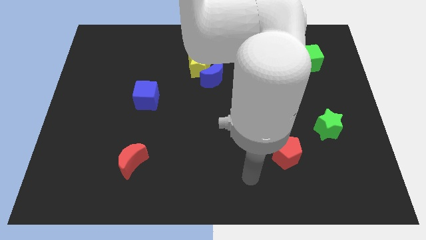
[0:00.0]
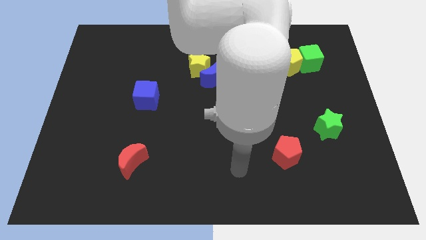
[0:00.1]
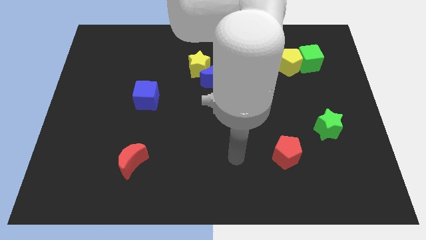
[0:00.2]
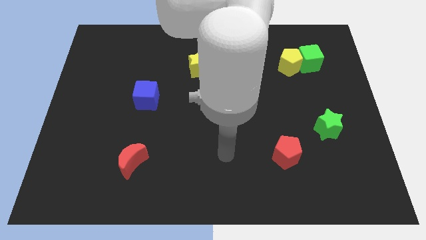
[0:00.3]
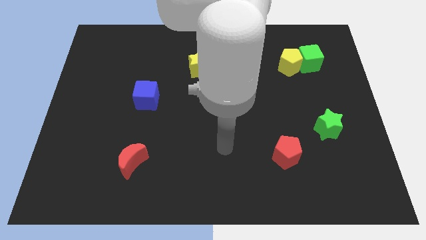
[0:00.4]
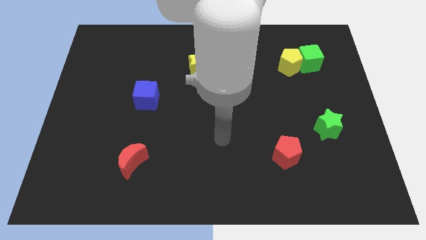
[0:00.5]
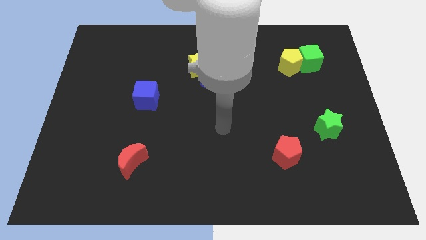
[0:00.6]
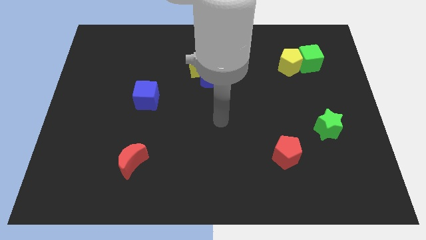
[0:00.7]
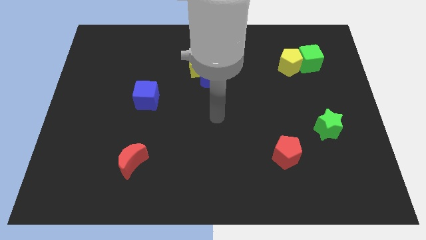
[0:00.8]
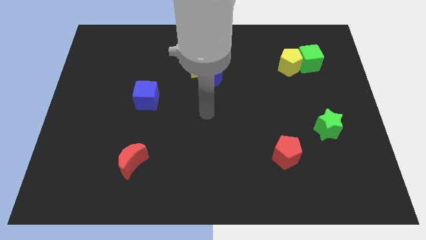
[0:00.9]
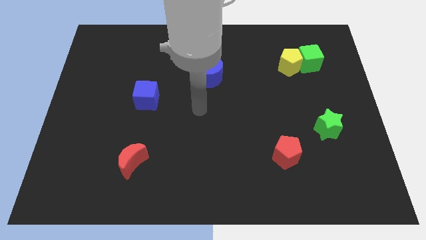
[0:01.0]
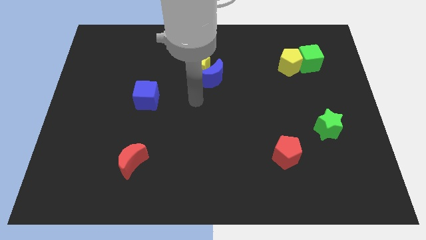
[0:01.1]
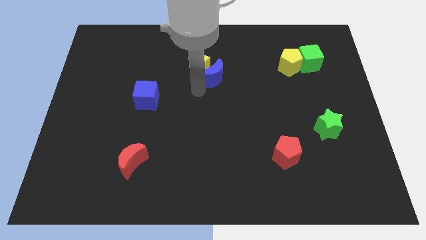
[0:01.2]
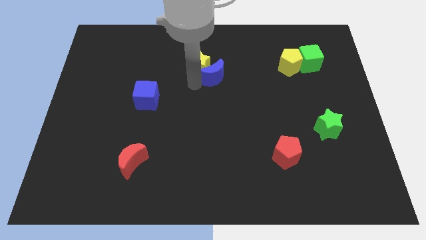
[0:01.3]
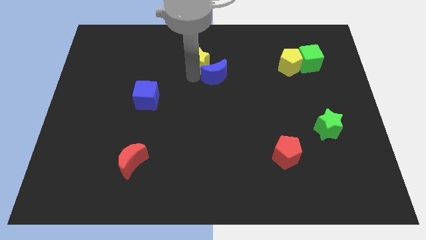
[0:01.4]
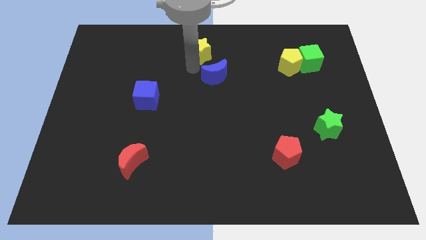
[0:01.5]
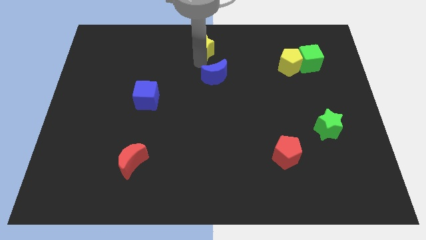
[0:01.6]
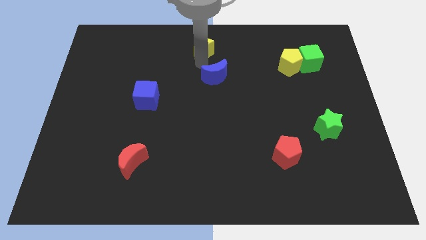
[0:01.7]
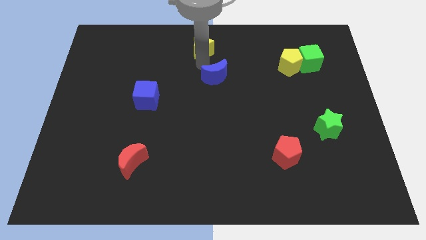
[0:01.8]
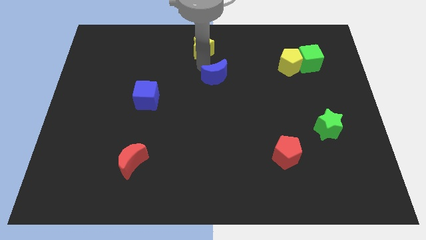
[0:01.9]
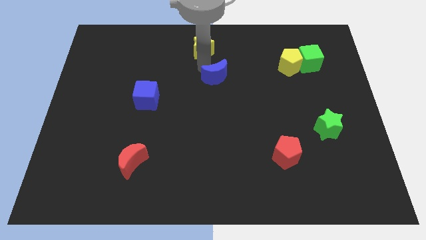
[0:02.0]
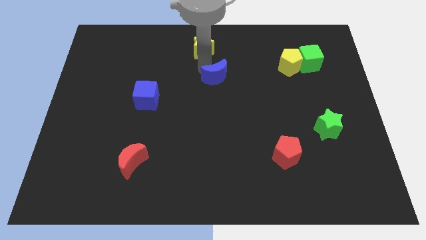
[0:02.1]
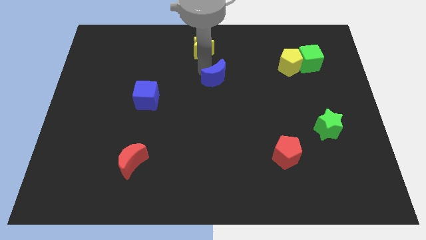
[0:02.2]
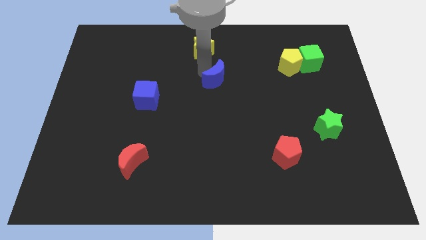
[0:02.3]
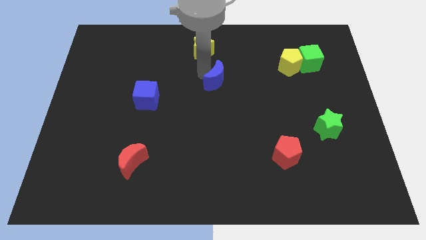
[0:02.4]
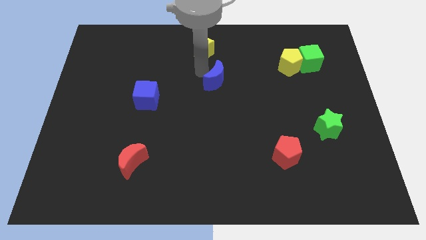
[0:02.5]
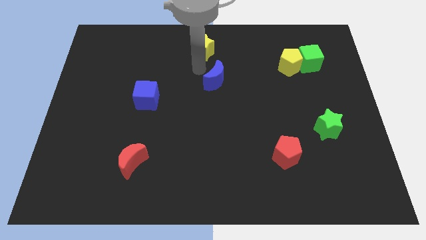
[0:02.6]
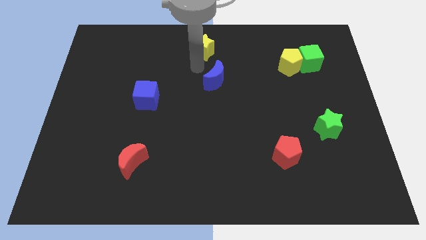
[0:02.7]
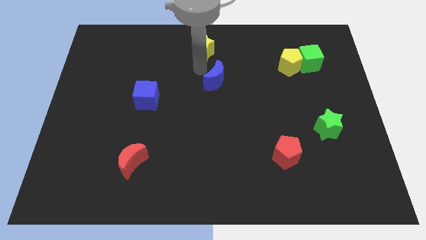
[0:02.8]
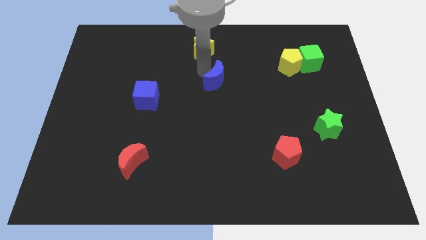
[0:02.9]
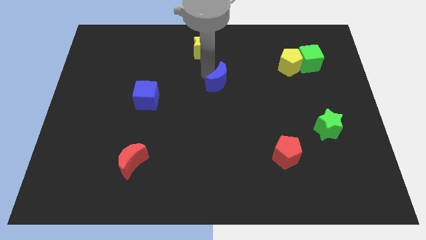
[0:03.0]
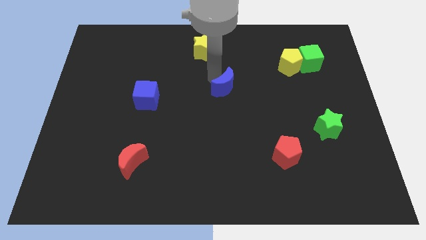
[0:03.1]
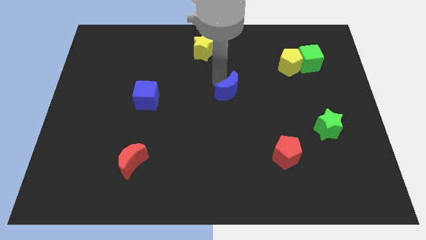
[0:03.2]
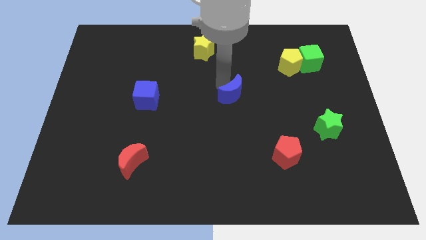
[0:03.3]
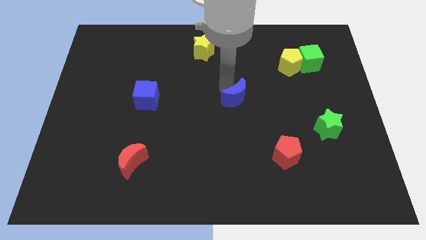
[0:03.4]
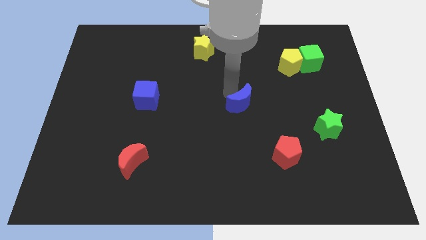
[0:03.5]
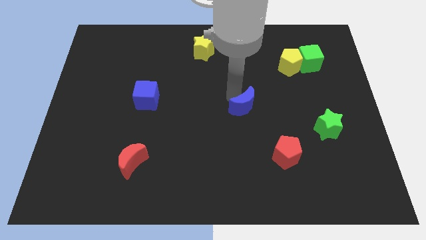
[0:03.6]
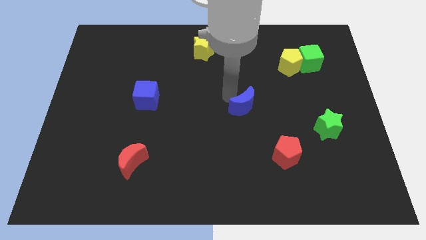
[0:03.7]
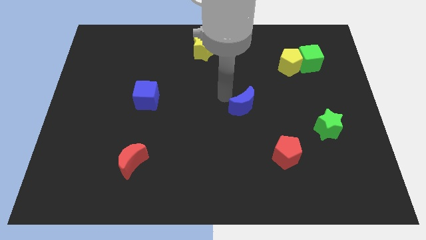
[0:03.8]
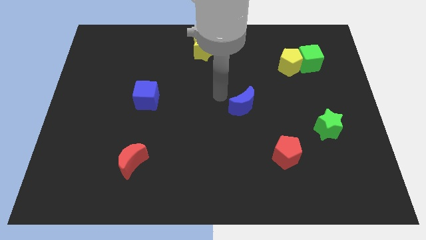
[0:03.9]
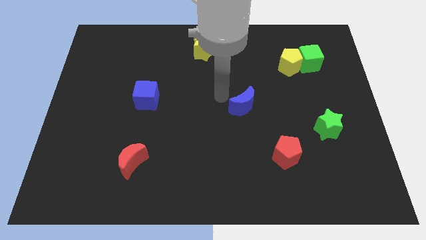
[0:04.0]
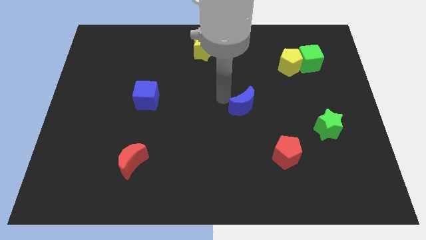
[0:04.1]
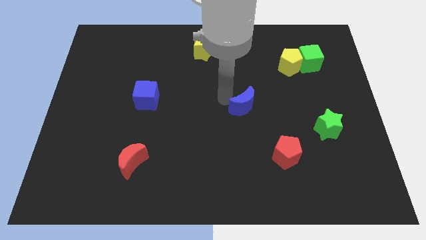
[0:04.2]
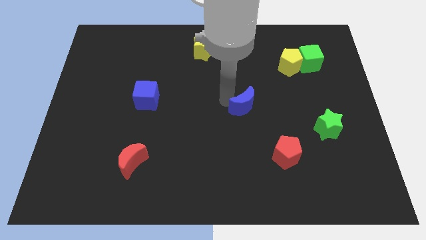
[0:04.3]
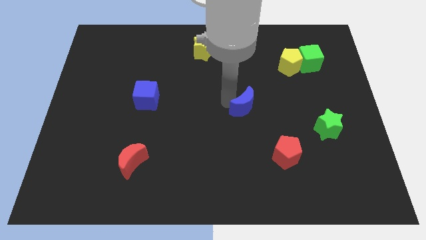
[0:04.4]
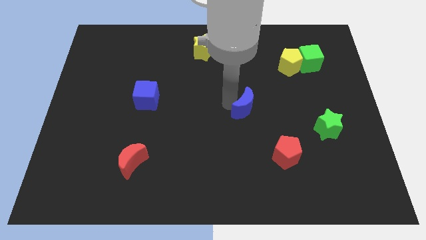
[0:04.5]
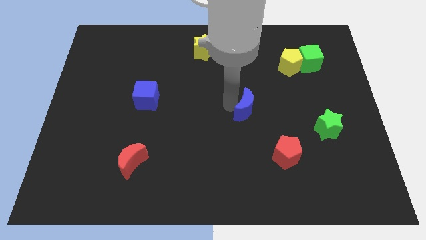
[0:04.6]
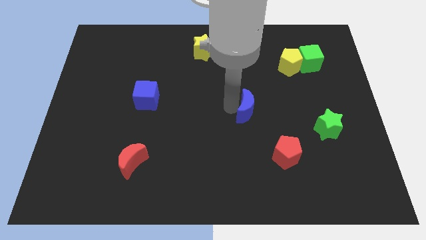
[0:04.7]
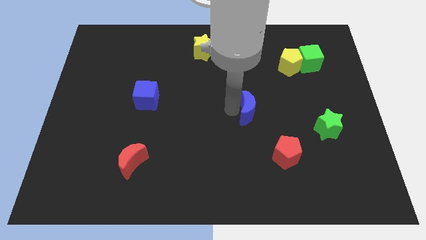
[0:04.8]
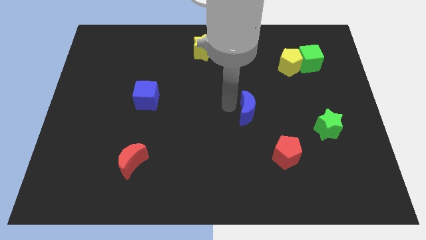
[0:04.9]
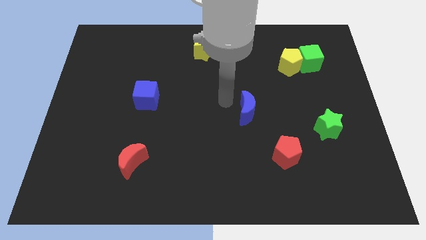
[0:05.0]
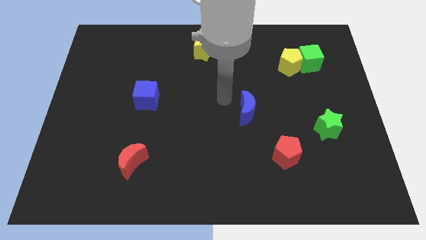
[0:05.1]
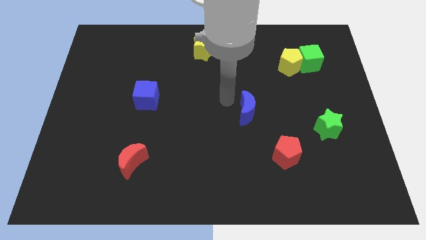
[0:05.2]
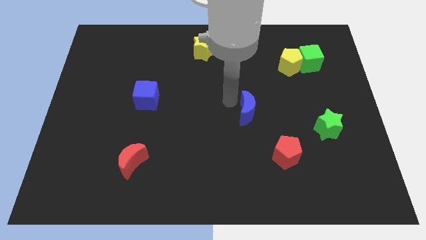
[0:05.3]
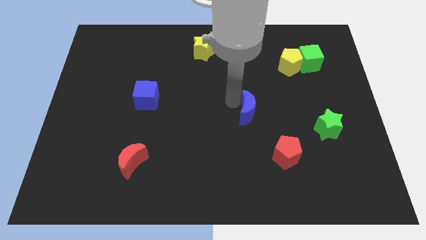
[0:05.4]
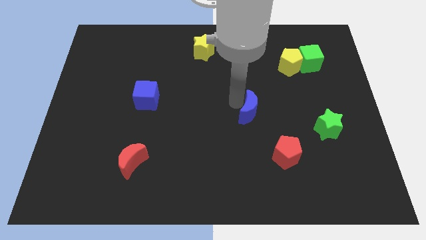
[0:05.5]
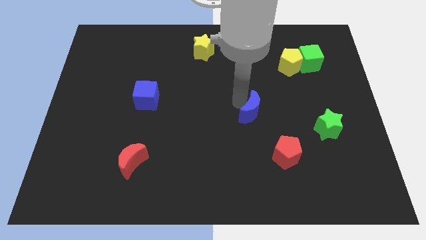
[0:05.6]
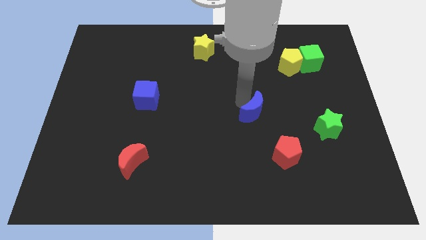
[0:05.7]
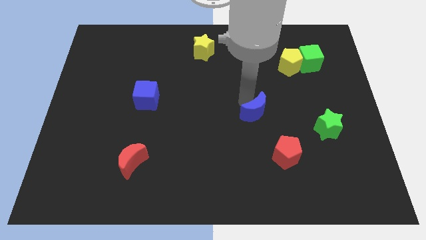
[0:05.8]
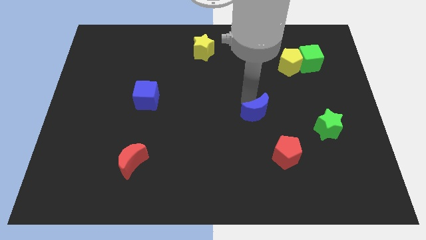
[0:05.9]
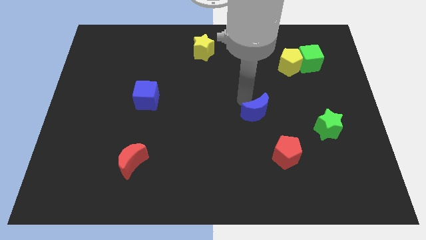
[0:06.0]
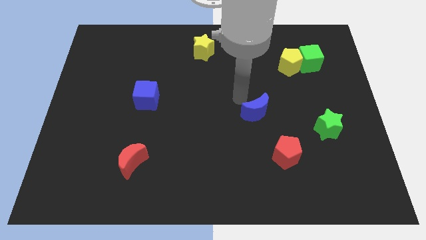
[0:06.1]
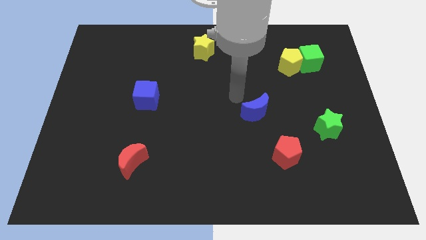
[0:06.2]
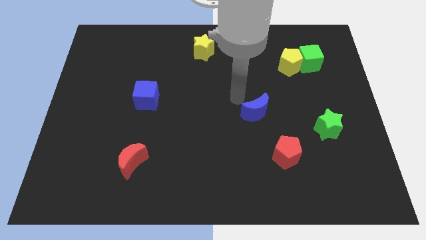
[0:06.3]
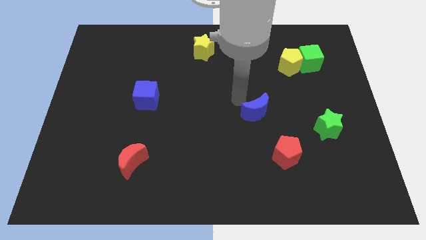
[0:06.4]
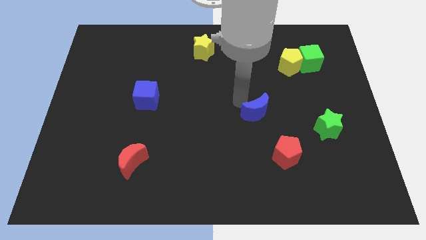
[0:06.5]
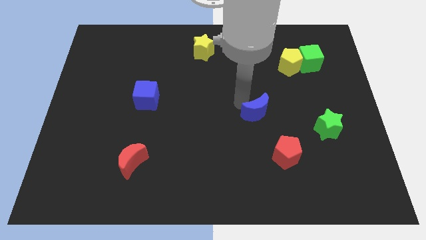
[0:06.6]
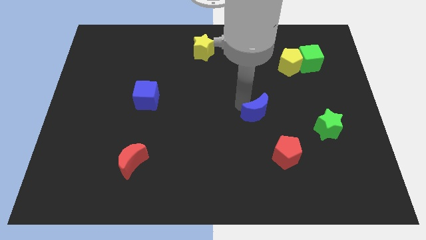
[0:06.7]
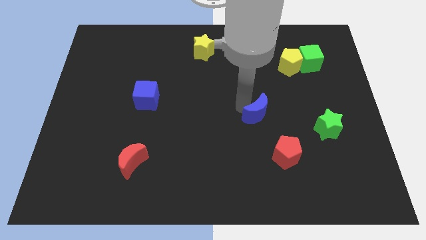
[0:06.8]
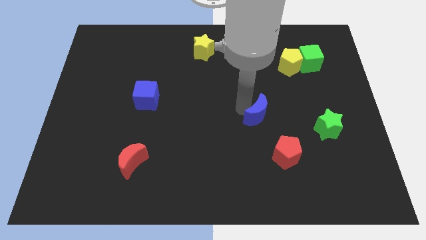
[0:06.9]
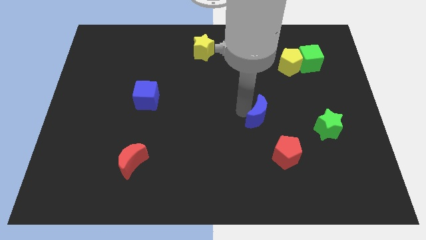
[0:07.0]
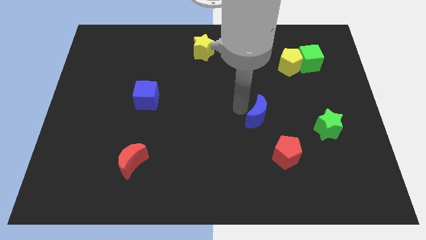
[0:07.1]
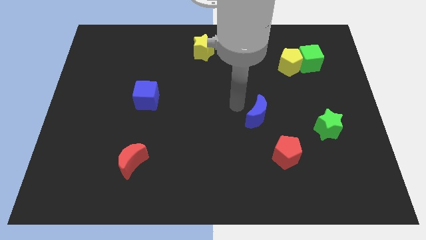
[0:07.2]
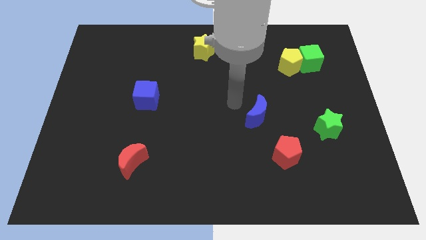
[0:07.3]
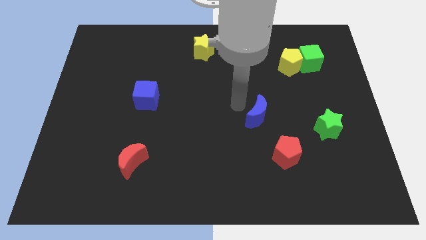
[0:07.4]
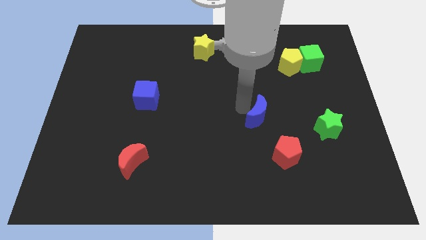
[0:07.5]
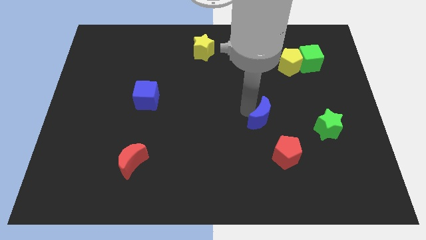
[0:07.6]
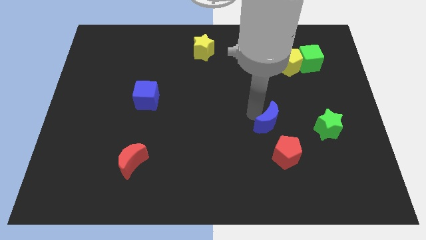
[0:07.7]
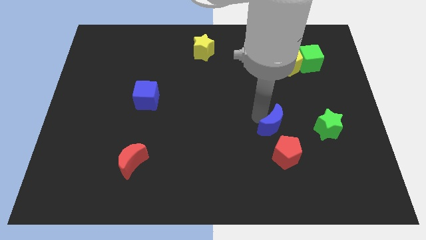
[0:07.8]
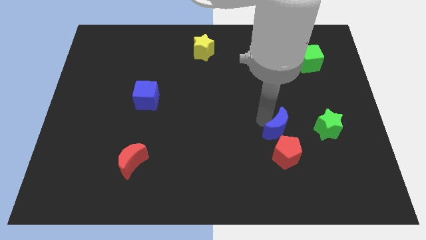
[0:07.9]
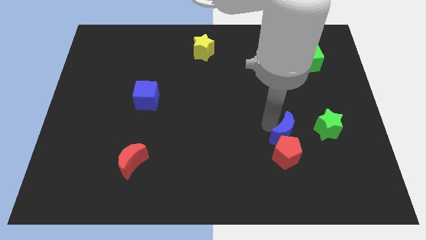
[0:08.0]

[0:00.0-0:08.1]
slide the blue moon to the top right of the red pentagon
